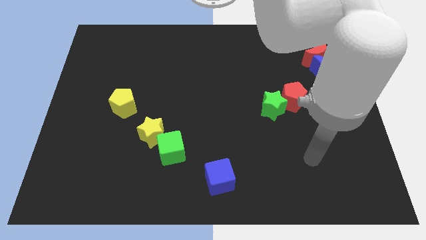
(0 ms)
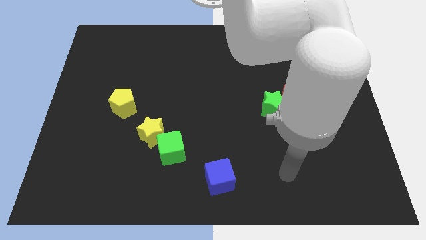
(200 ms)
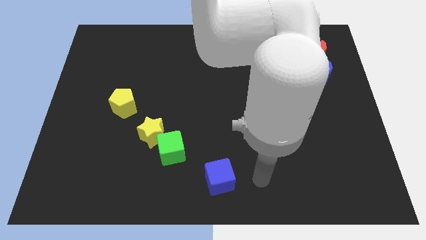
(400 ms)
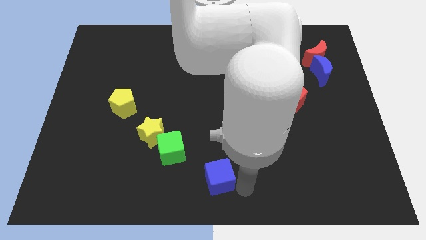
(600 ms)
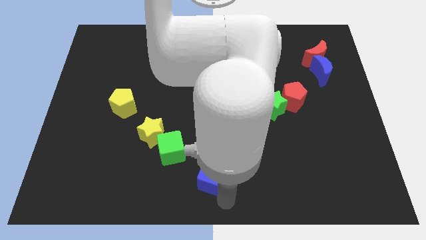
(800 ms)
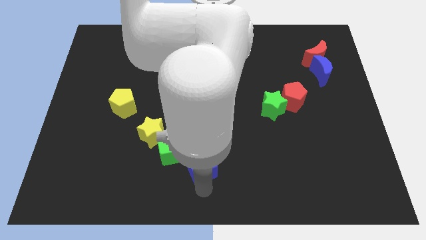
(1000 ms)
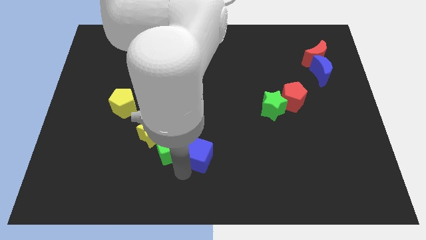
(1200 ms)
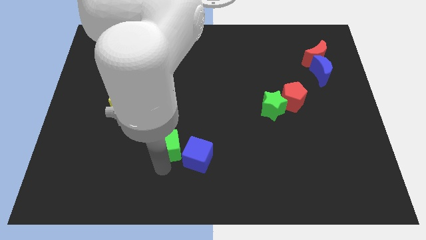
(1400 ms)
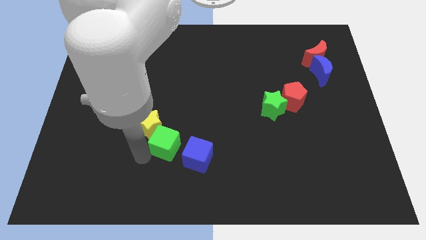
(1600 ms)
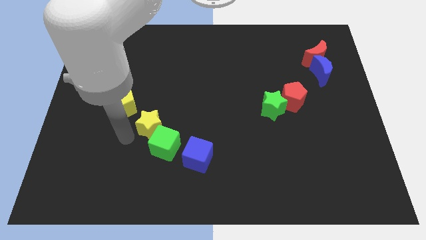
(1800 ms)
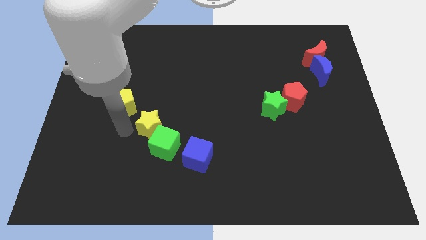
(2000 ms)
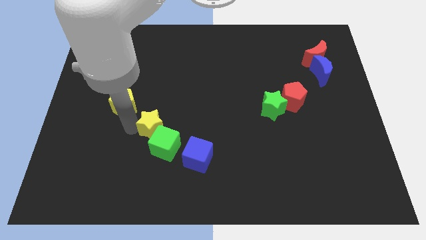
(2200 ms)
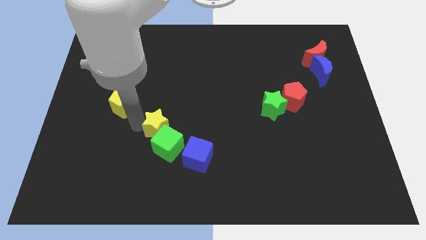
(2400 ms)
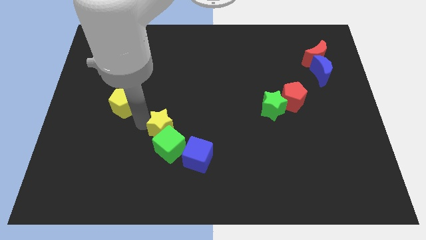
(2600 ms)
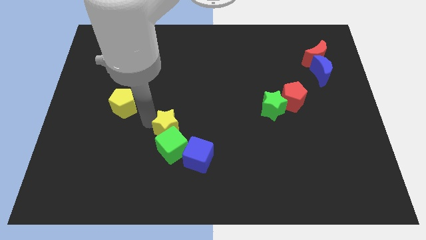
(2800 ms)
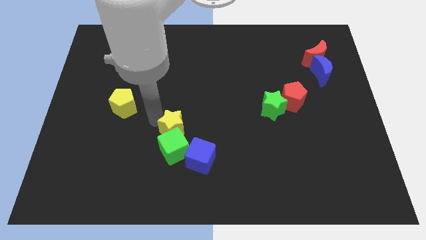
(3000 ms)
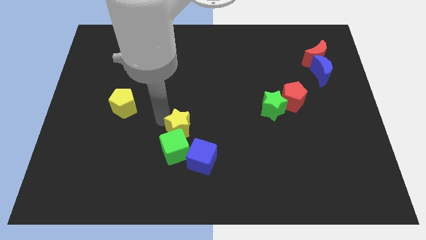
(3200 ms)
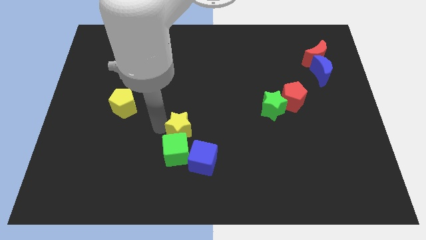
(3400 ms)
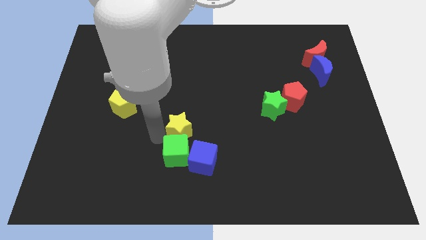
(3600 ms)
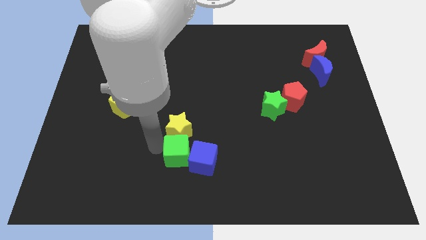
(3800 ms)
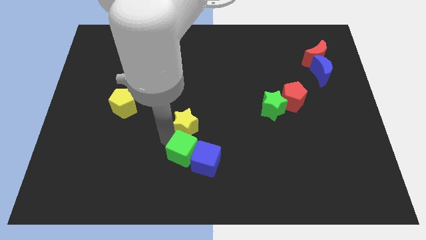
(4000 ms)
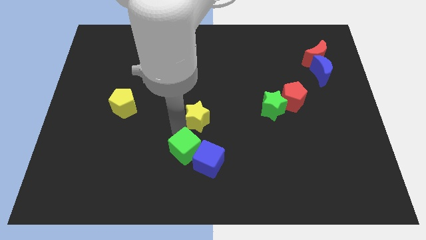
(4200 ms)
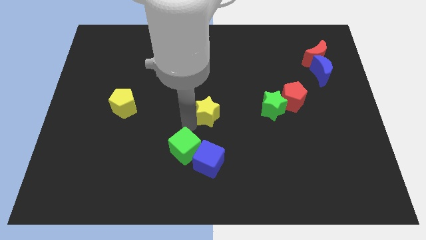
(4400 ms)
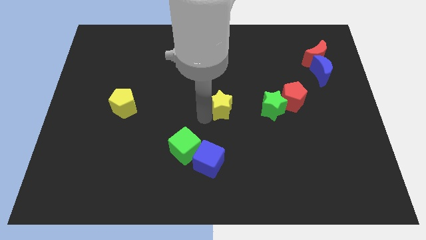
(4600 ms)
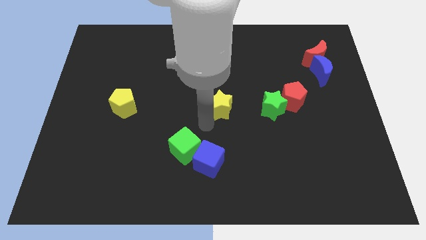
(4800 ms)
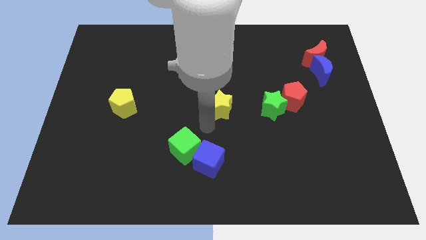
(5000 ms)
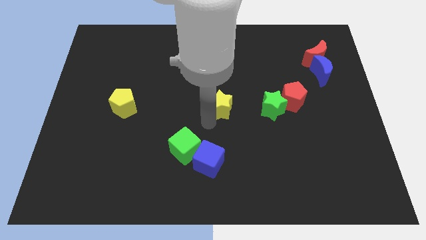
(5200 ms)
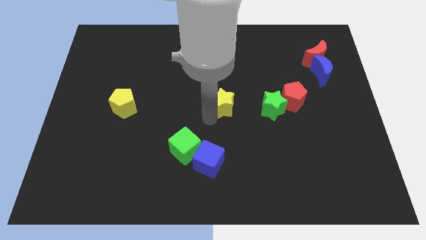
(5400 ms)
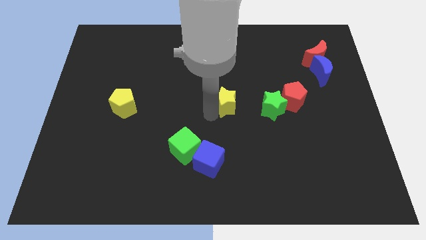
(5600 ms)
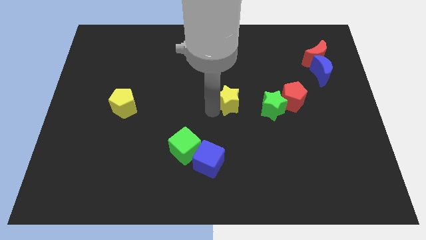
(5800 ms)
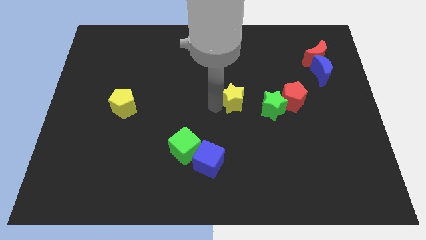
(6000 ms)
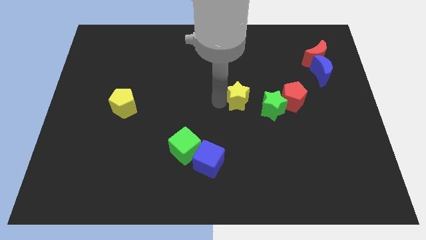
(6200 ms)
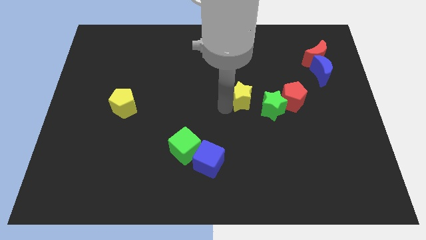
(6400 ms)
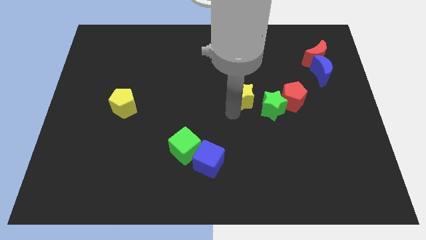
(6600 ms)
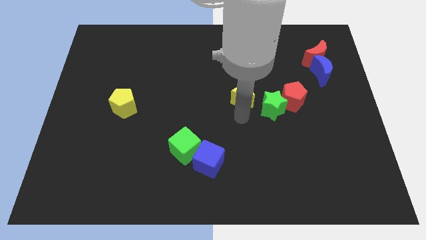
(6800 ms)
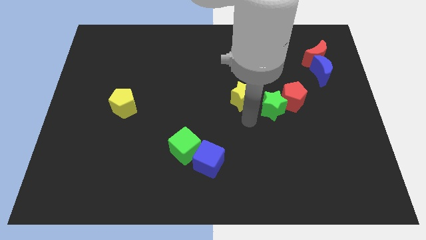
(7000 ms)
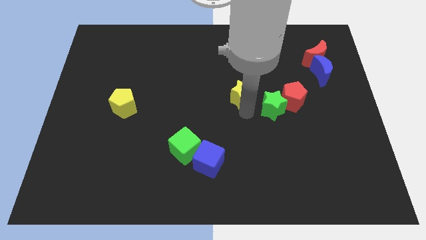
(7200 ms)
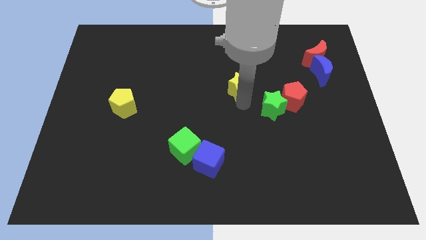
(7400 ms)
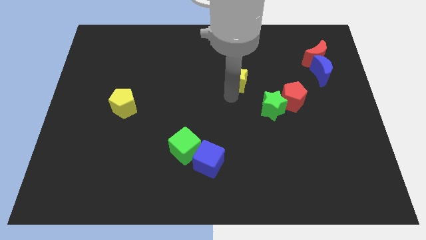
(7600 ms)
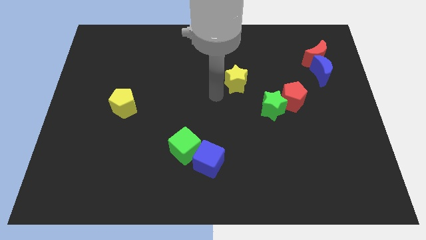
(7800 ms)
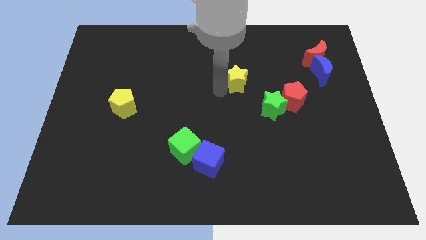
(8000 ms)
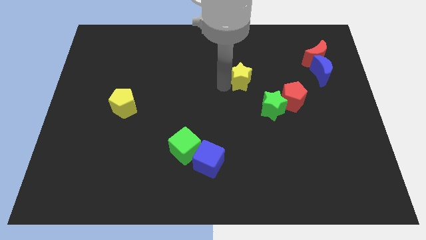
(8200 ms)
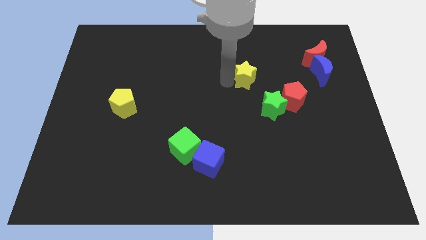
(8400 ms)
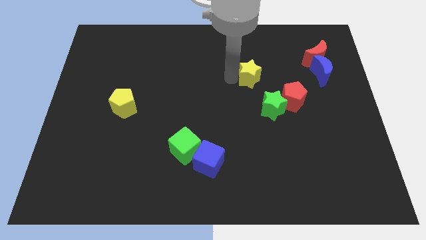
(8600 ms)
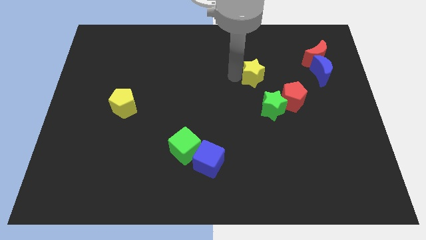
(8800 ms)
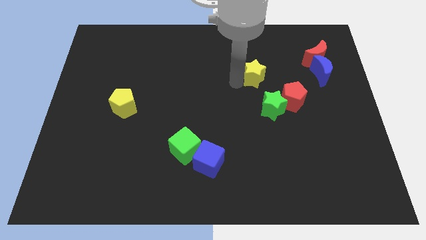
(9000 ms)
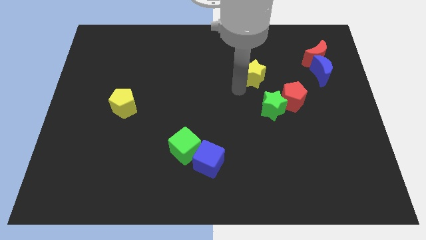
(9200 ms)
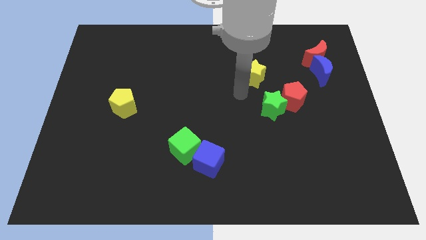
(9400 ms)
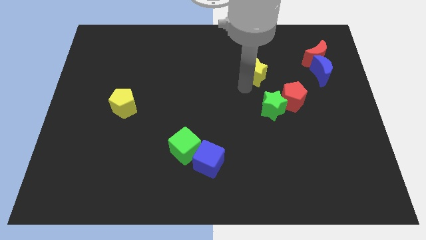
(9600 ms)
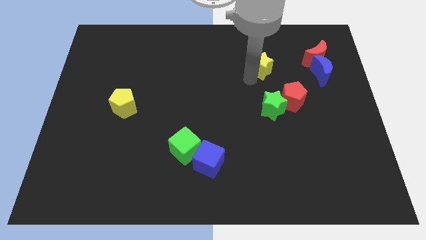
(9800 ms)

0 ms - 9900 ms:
slide the yellow star to the left side of the red moon

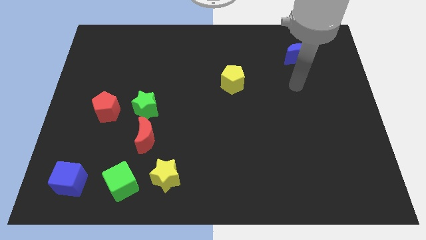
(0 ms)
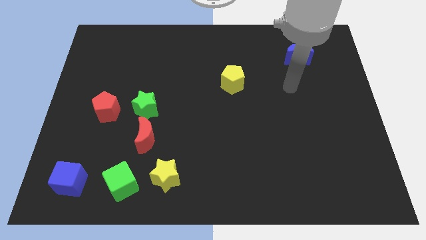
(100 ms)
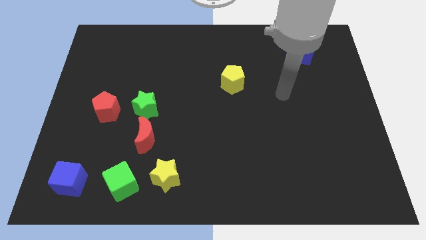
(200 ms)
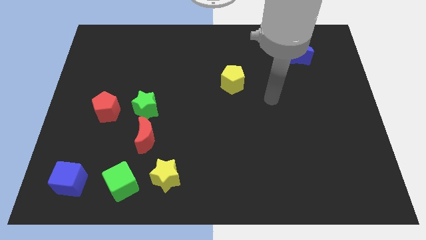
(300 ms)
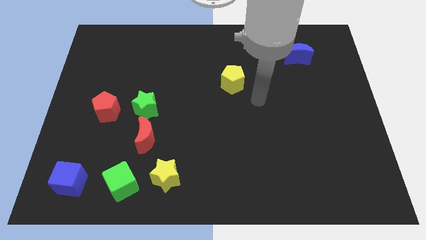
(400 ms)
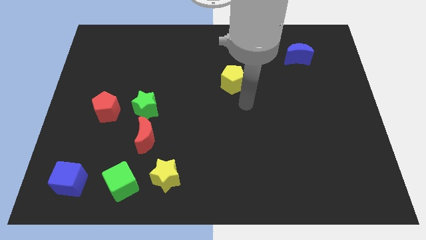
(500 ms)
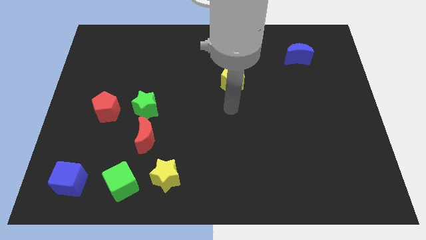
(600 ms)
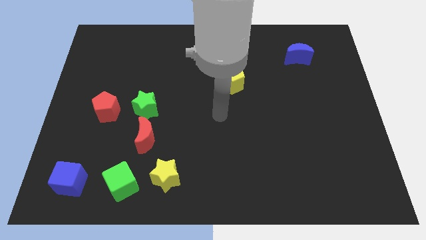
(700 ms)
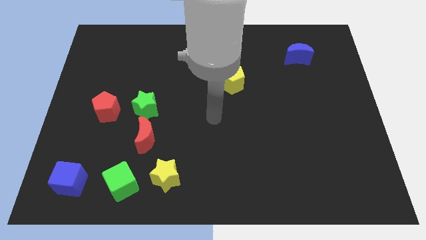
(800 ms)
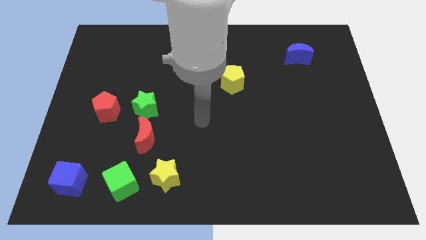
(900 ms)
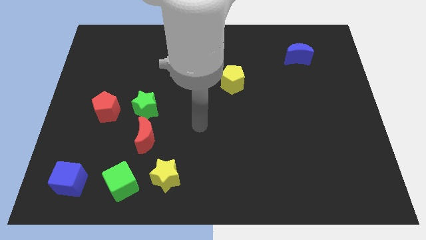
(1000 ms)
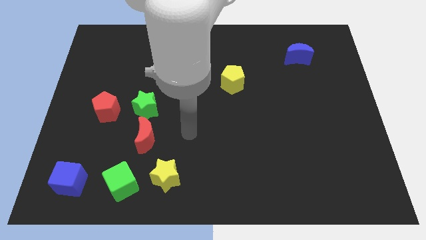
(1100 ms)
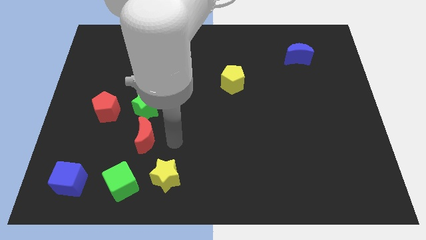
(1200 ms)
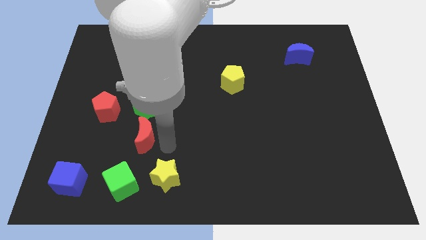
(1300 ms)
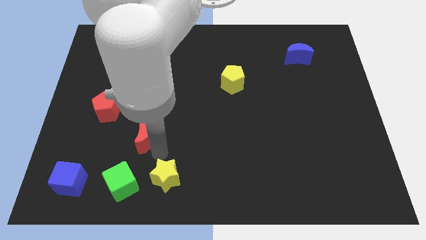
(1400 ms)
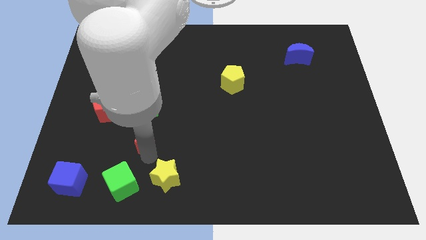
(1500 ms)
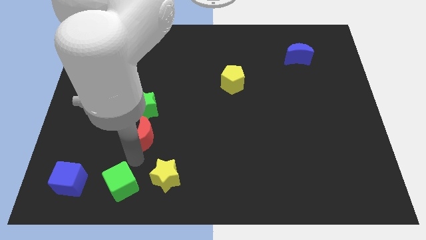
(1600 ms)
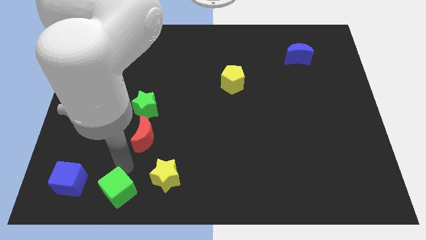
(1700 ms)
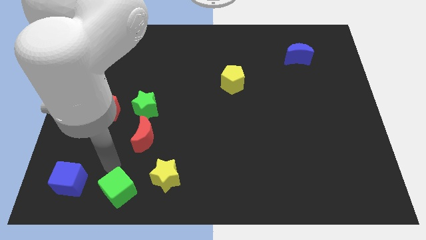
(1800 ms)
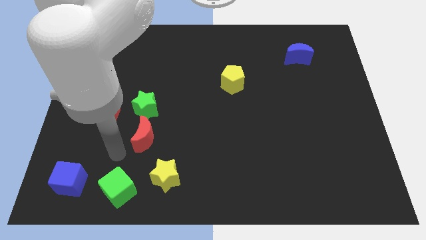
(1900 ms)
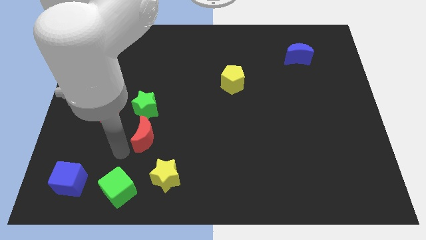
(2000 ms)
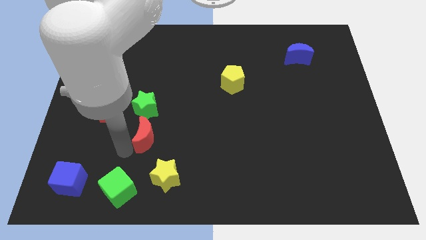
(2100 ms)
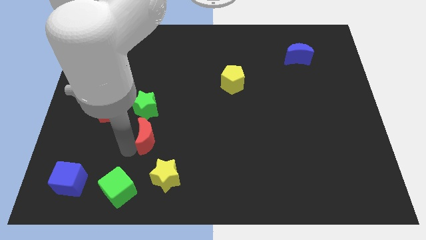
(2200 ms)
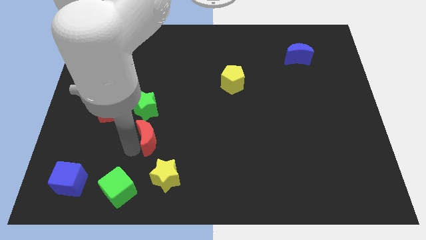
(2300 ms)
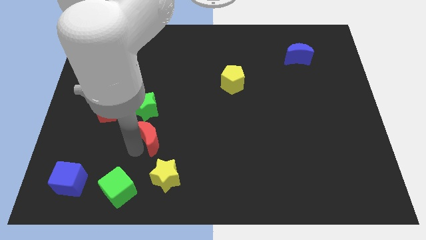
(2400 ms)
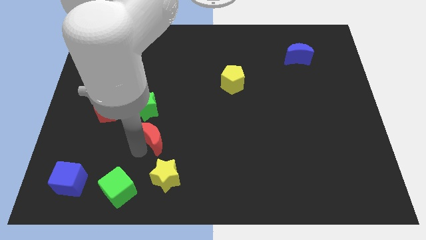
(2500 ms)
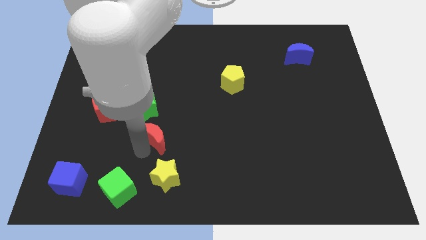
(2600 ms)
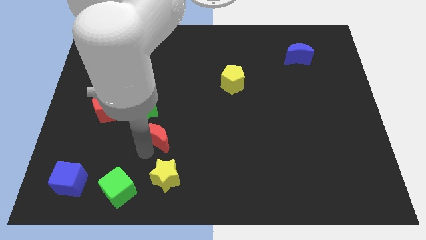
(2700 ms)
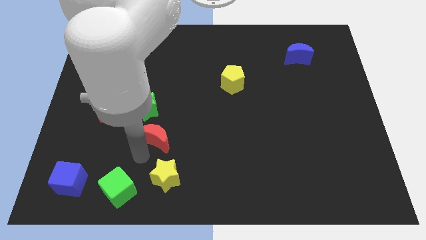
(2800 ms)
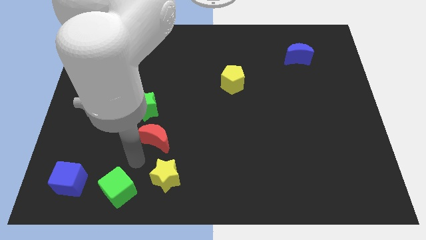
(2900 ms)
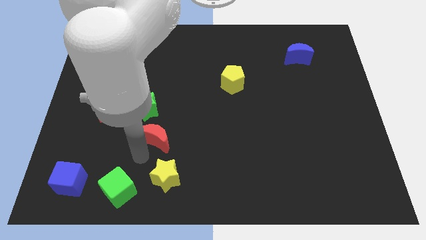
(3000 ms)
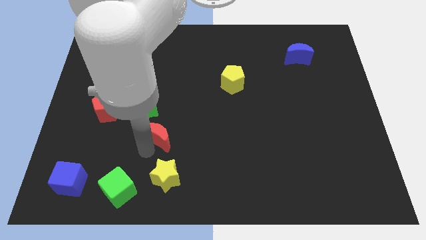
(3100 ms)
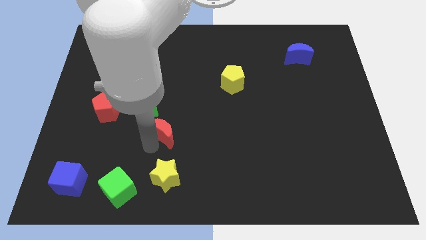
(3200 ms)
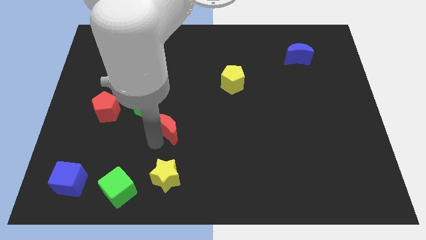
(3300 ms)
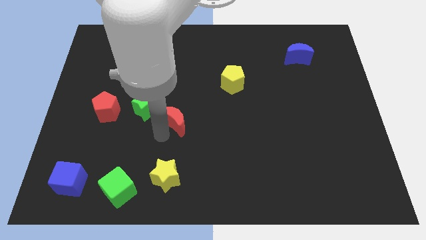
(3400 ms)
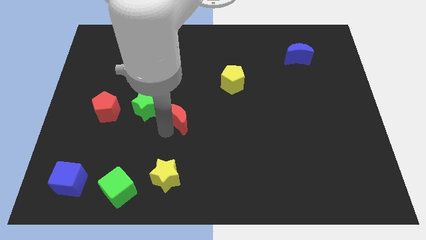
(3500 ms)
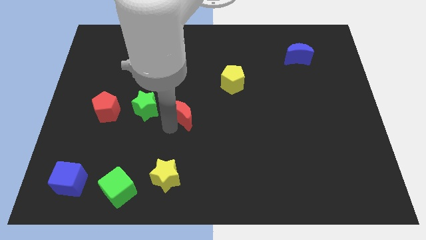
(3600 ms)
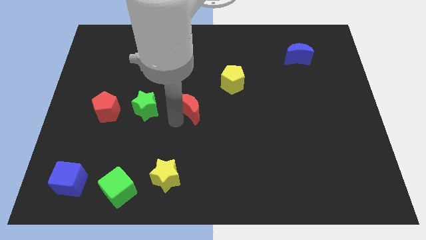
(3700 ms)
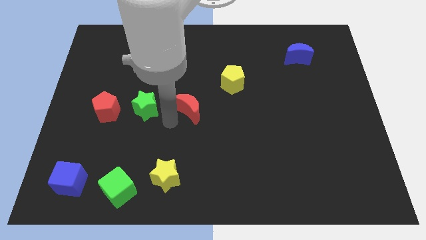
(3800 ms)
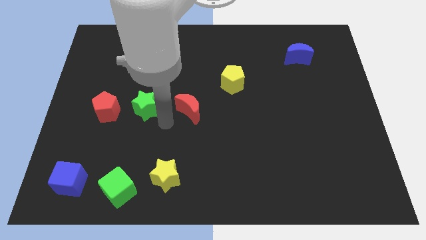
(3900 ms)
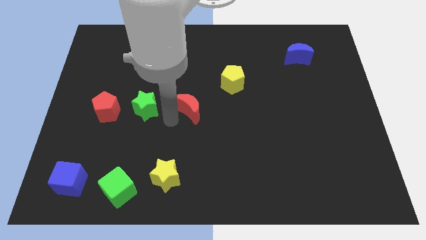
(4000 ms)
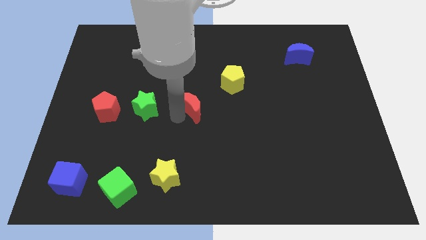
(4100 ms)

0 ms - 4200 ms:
slide the red moon to the bottom left side of the yellow pentagon
